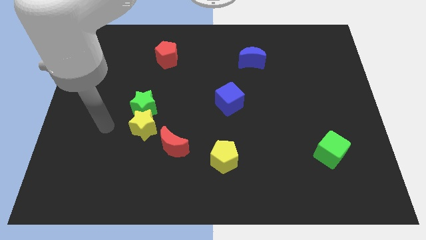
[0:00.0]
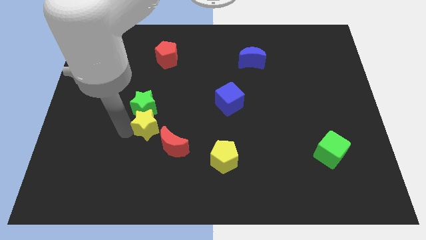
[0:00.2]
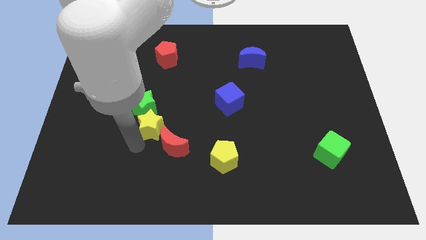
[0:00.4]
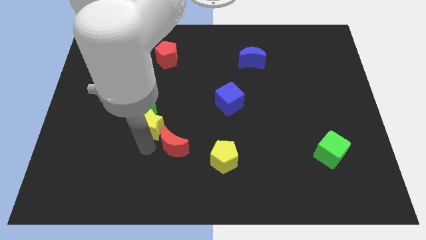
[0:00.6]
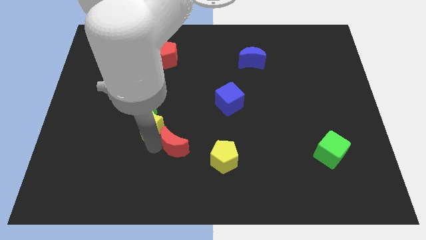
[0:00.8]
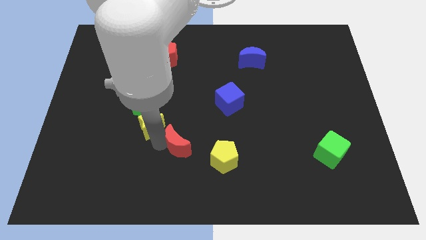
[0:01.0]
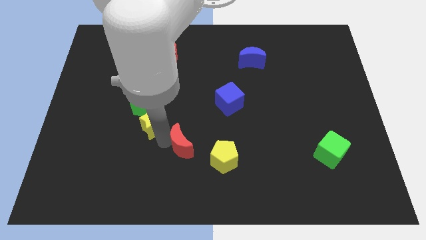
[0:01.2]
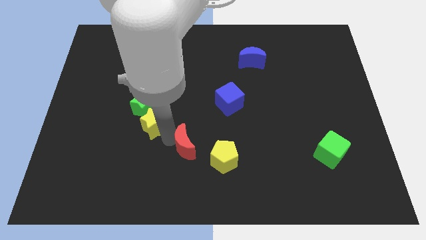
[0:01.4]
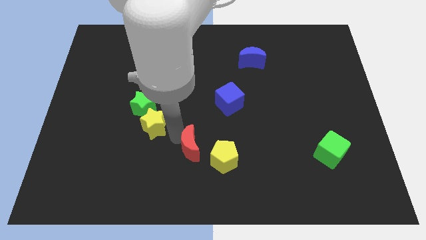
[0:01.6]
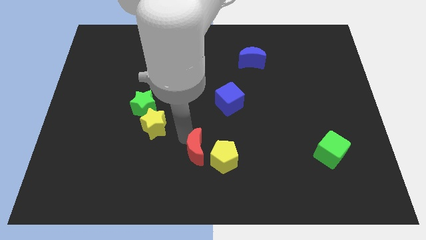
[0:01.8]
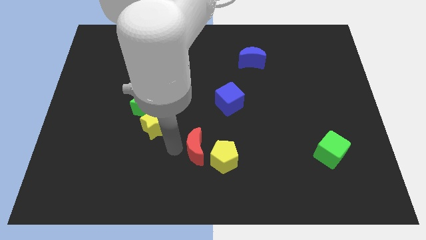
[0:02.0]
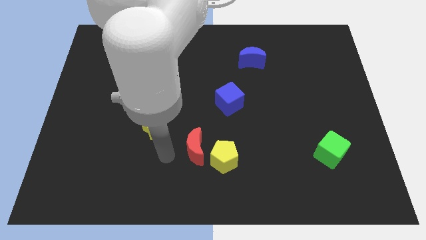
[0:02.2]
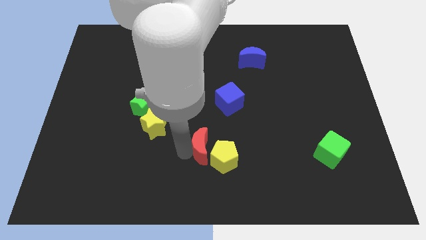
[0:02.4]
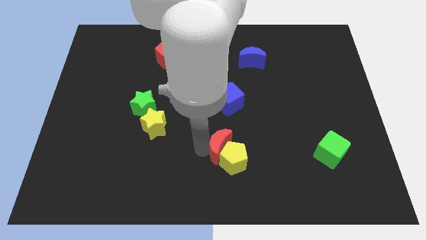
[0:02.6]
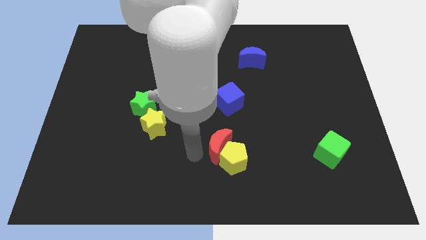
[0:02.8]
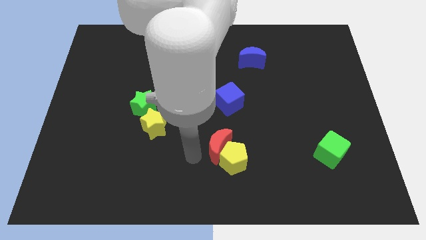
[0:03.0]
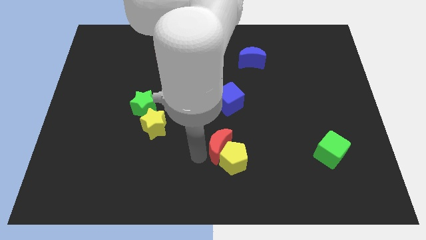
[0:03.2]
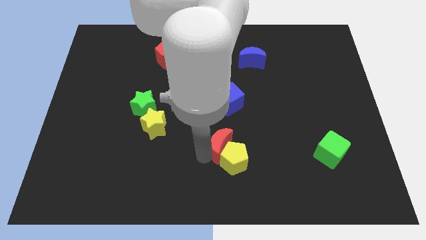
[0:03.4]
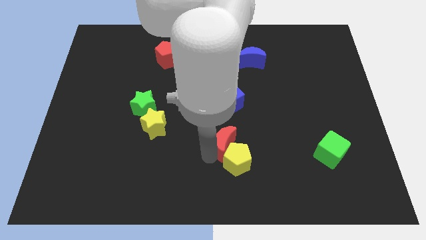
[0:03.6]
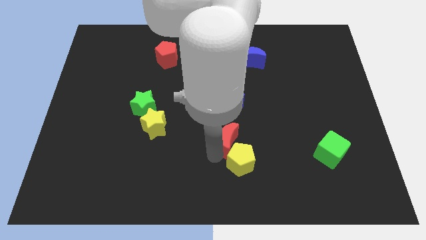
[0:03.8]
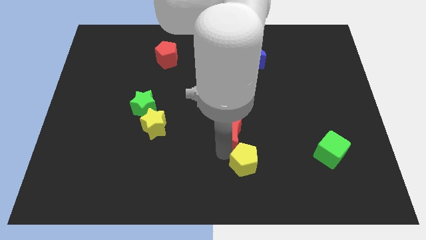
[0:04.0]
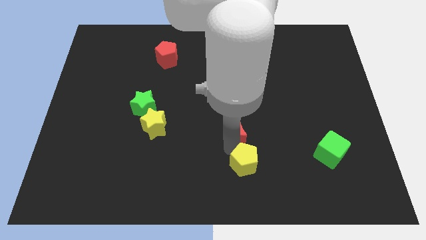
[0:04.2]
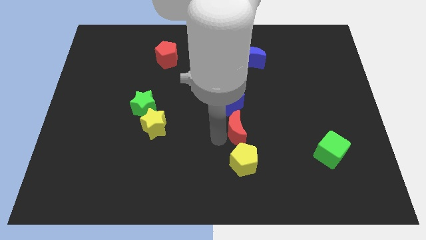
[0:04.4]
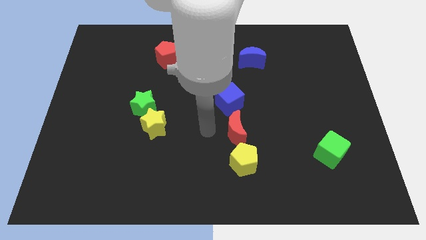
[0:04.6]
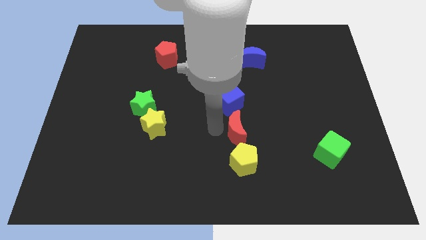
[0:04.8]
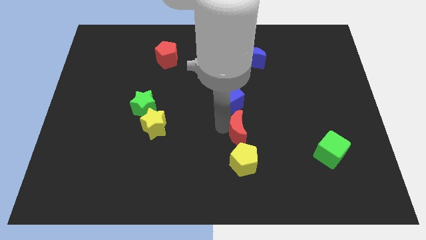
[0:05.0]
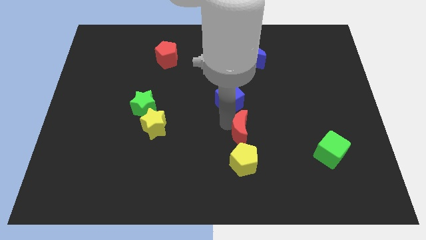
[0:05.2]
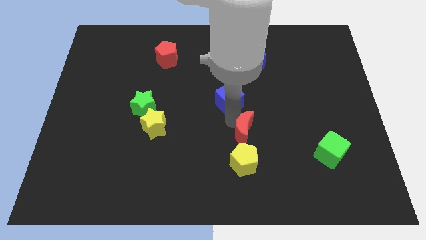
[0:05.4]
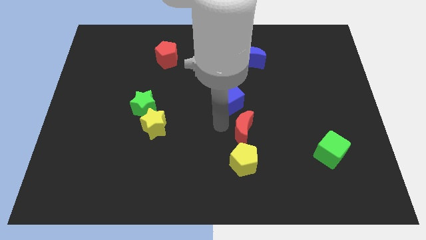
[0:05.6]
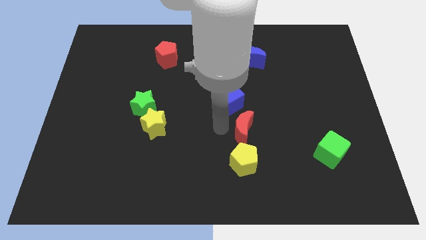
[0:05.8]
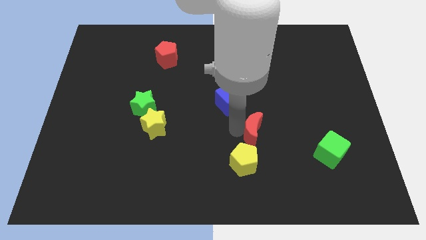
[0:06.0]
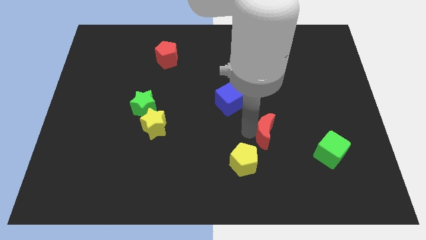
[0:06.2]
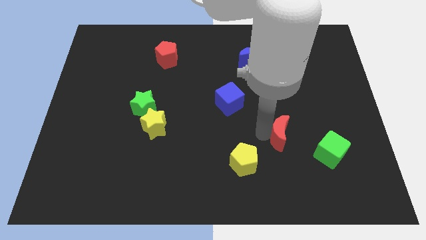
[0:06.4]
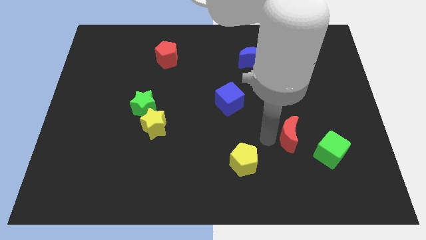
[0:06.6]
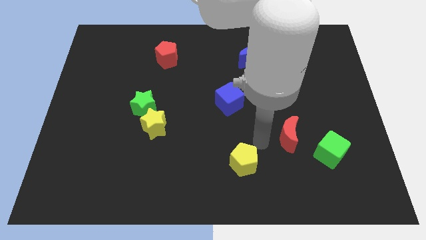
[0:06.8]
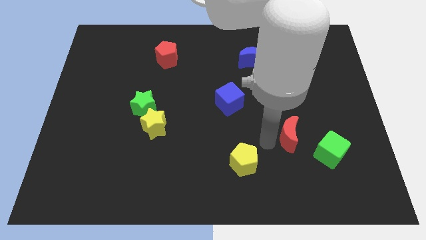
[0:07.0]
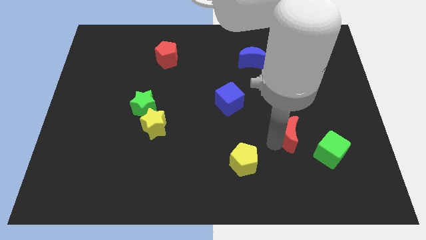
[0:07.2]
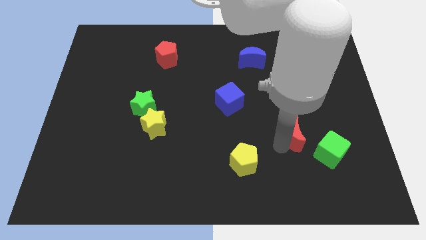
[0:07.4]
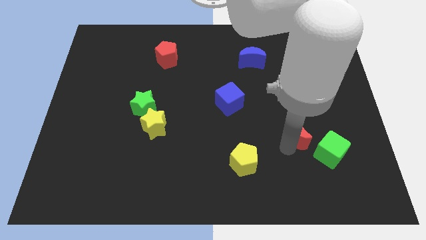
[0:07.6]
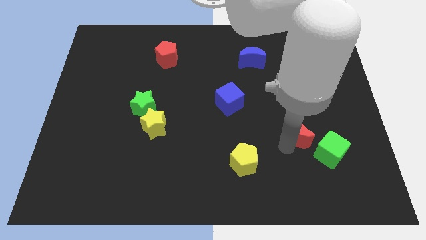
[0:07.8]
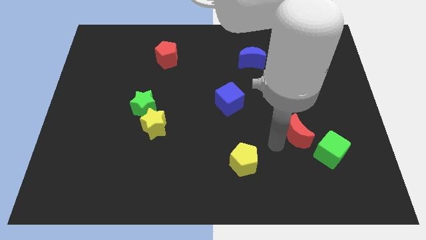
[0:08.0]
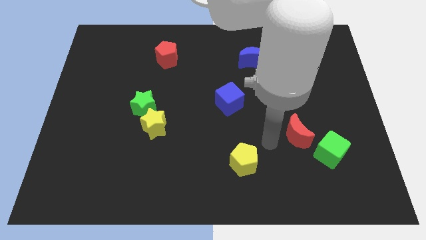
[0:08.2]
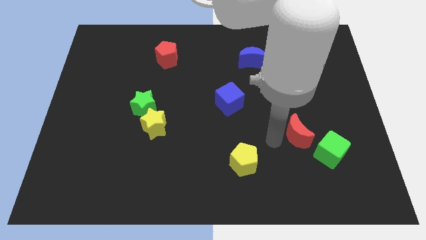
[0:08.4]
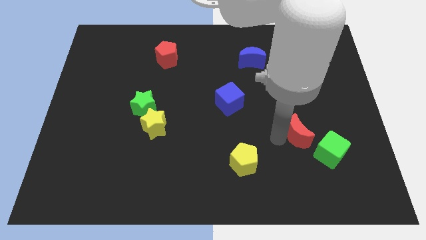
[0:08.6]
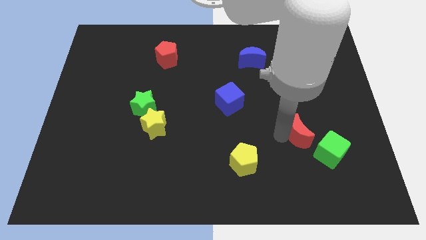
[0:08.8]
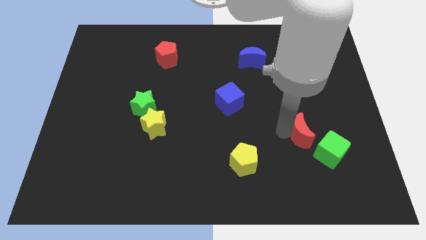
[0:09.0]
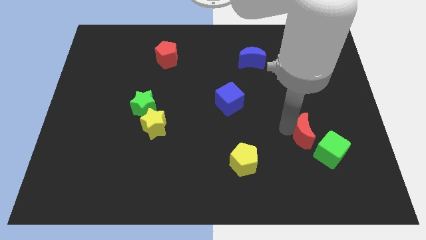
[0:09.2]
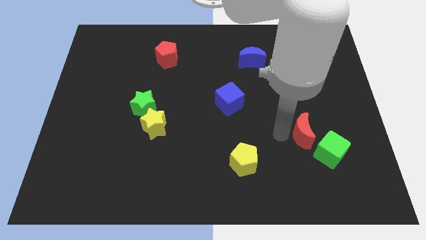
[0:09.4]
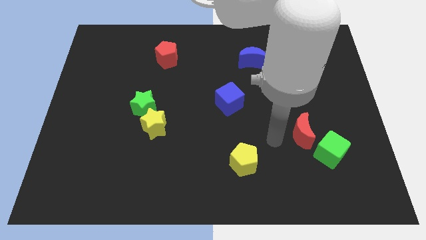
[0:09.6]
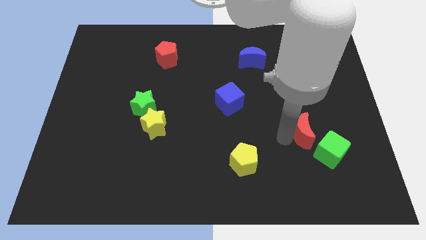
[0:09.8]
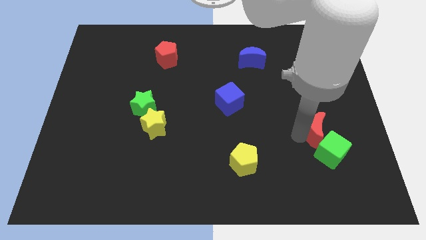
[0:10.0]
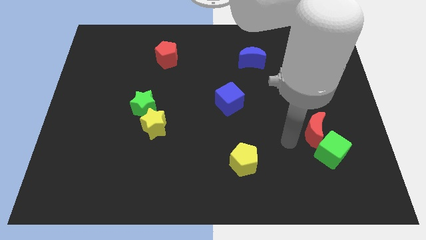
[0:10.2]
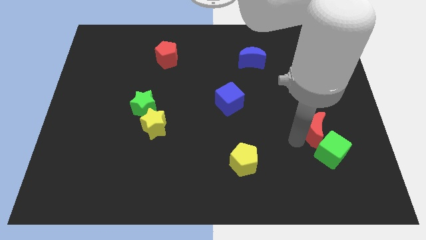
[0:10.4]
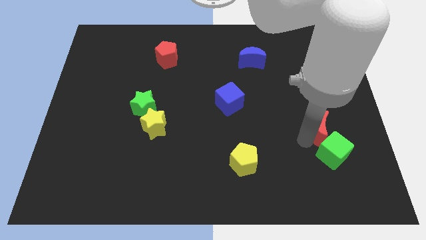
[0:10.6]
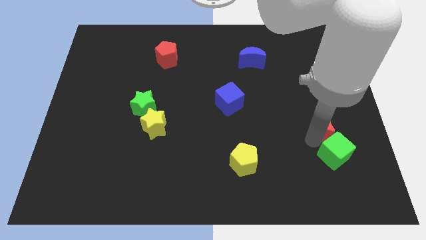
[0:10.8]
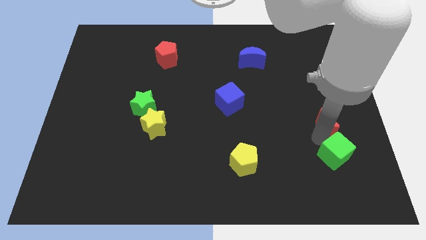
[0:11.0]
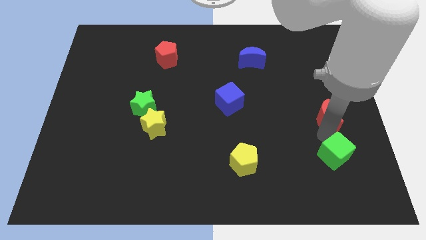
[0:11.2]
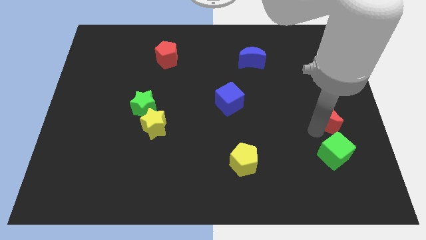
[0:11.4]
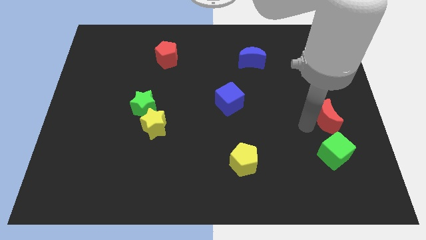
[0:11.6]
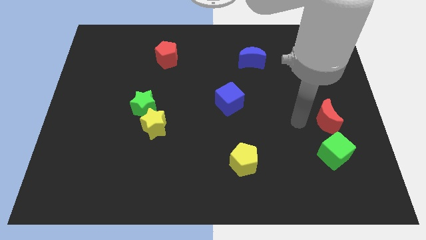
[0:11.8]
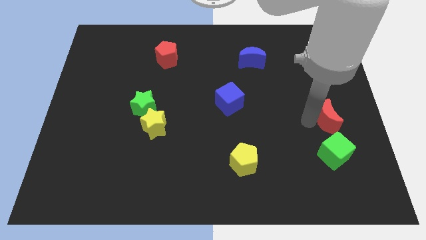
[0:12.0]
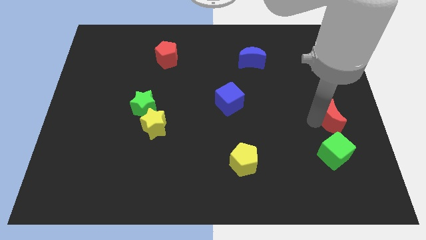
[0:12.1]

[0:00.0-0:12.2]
slide the red moon to the right side
